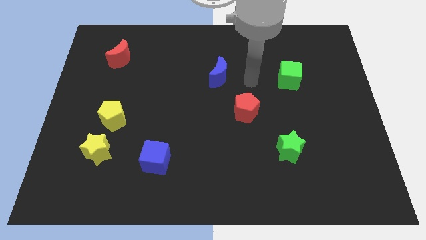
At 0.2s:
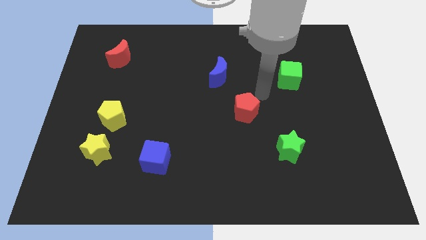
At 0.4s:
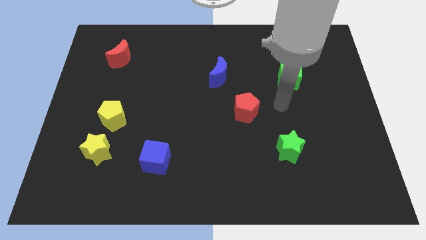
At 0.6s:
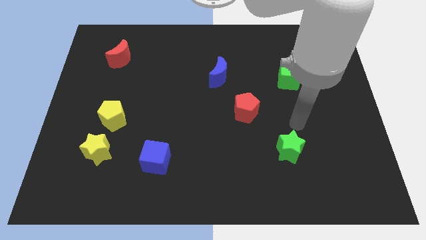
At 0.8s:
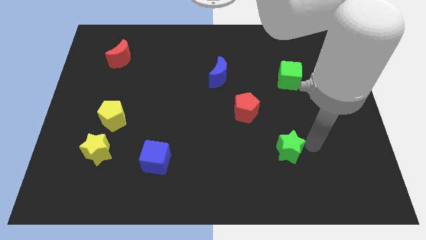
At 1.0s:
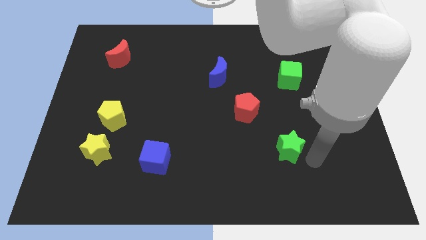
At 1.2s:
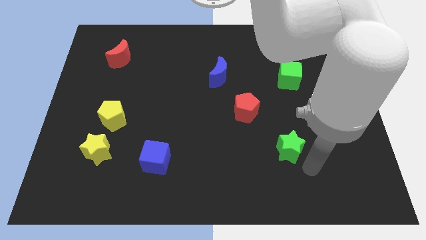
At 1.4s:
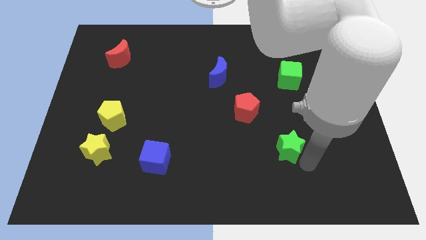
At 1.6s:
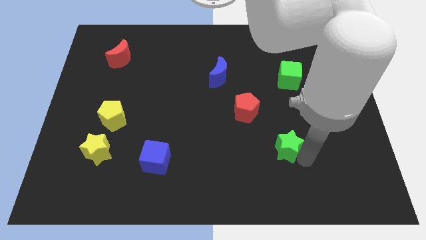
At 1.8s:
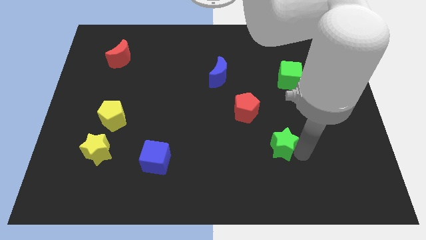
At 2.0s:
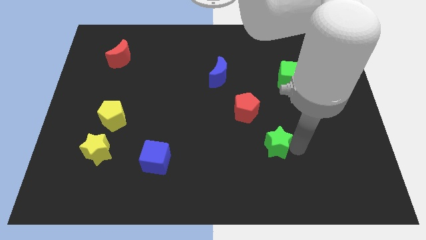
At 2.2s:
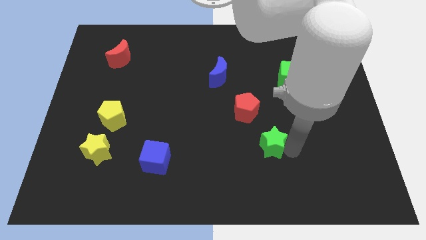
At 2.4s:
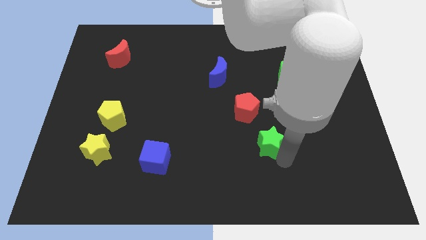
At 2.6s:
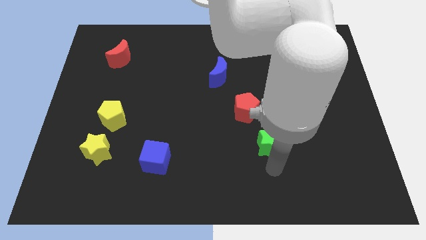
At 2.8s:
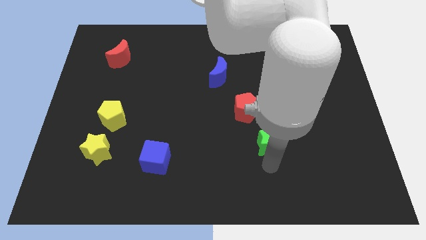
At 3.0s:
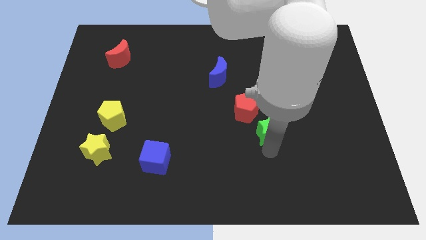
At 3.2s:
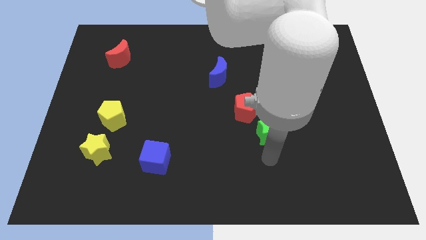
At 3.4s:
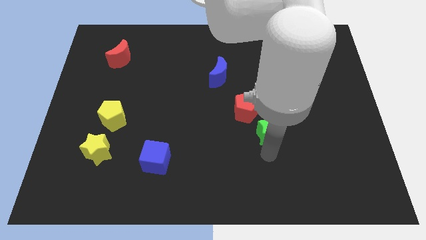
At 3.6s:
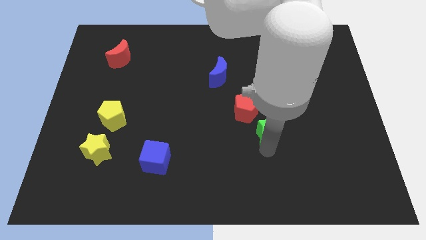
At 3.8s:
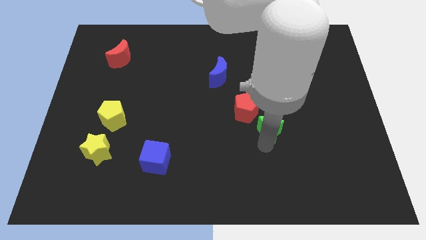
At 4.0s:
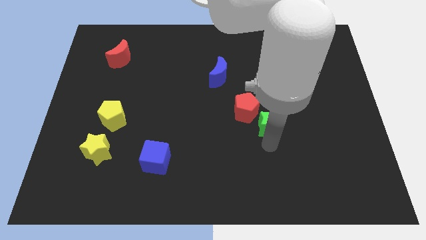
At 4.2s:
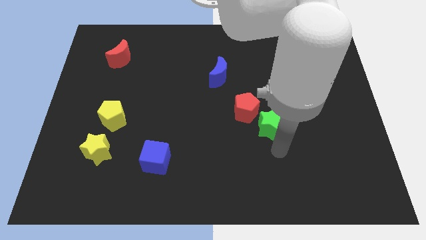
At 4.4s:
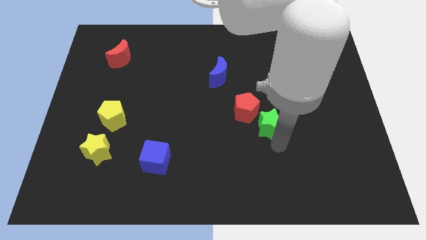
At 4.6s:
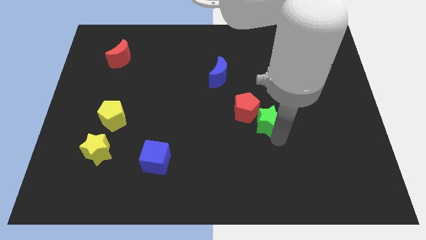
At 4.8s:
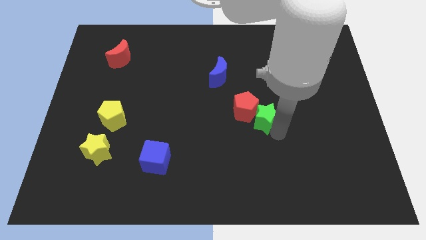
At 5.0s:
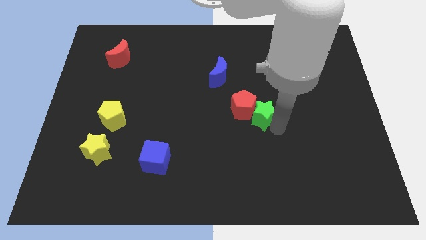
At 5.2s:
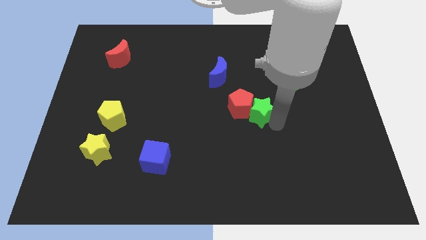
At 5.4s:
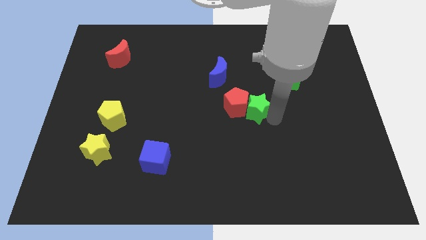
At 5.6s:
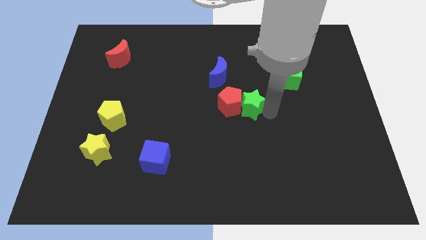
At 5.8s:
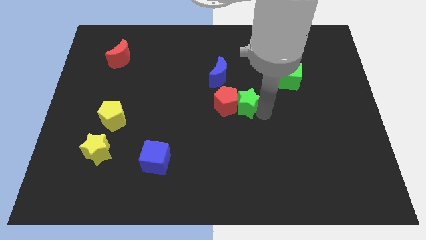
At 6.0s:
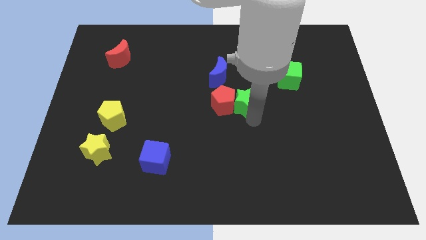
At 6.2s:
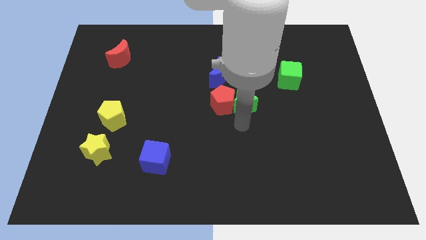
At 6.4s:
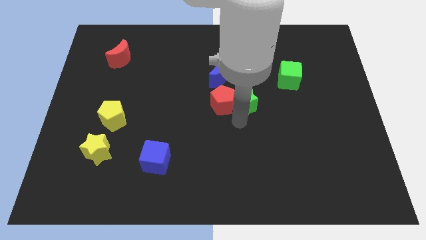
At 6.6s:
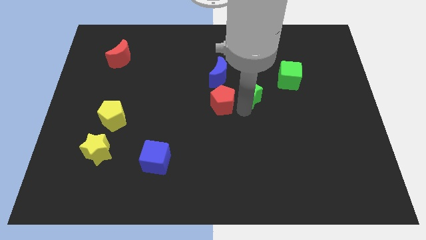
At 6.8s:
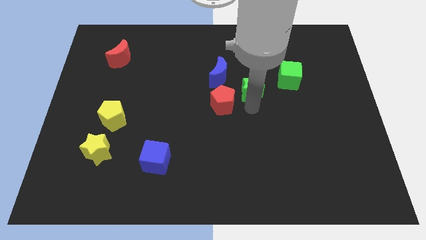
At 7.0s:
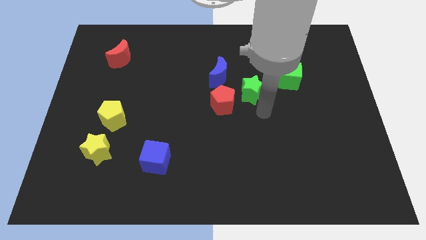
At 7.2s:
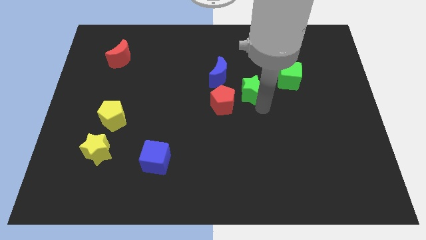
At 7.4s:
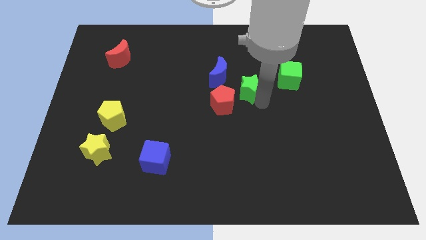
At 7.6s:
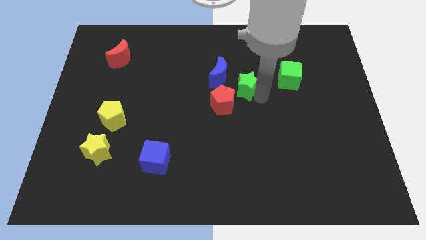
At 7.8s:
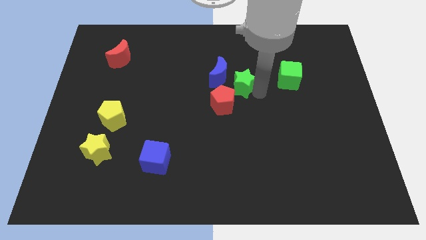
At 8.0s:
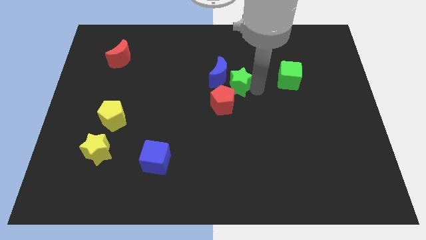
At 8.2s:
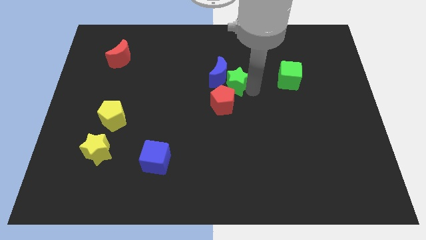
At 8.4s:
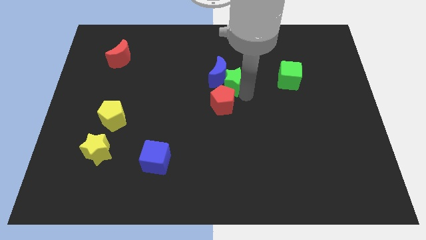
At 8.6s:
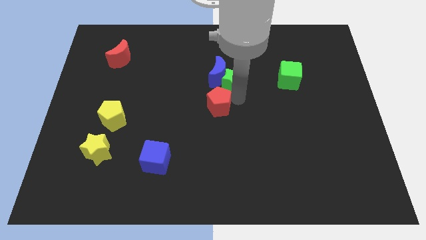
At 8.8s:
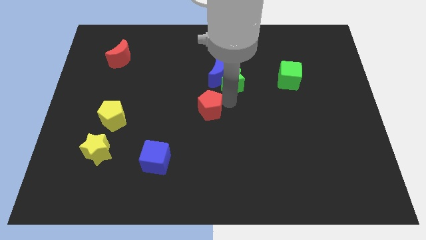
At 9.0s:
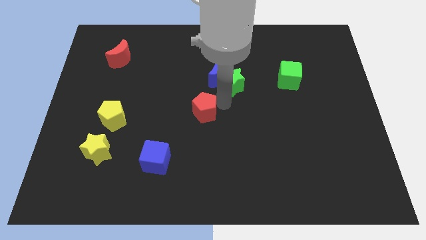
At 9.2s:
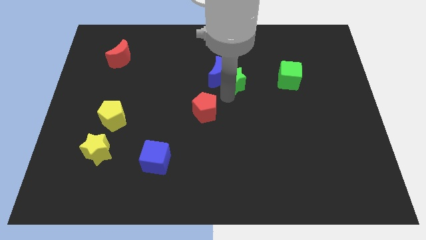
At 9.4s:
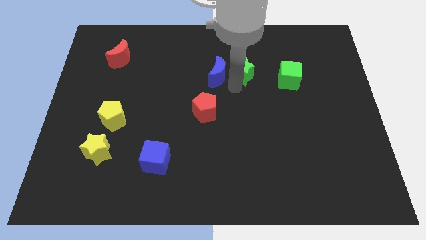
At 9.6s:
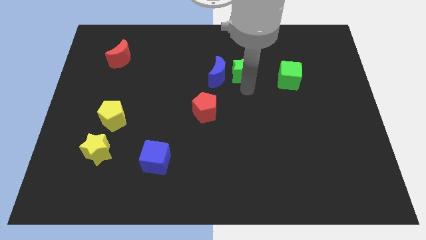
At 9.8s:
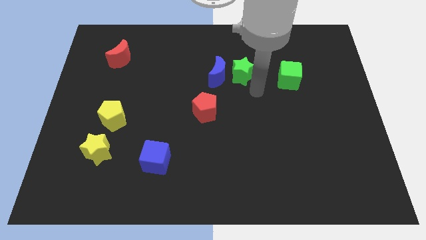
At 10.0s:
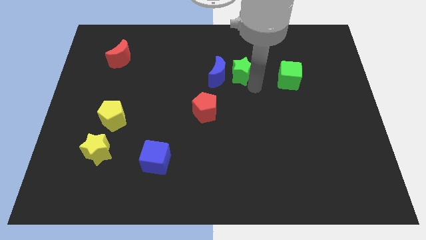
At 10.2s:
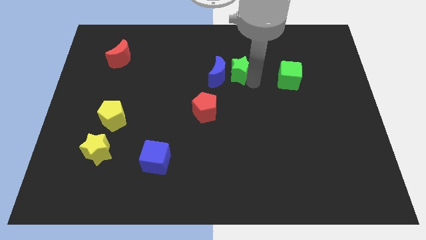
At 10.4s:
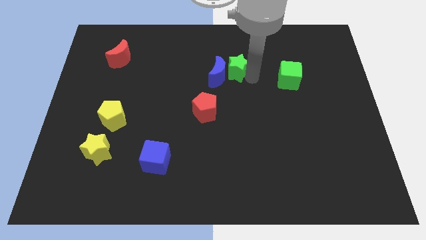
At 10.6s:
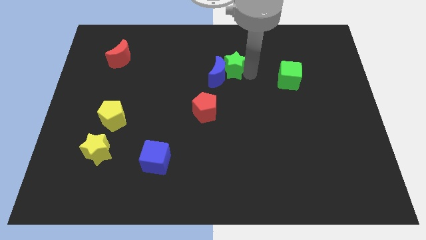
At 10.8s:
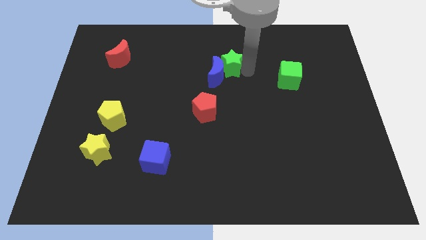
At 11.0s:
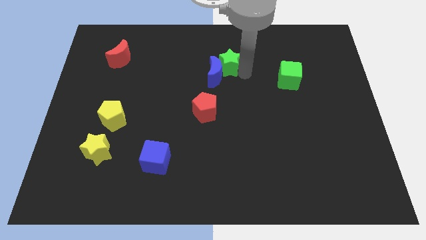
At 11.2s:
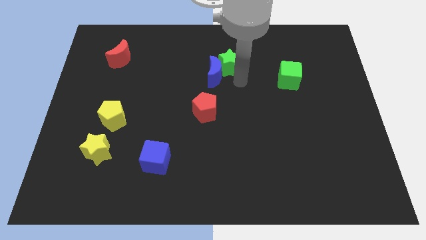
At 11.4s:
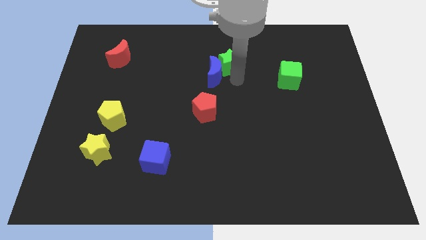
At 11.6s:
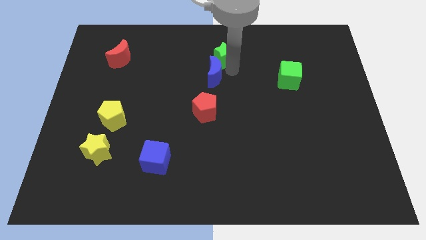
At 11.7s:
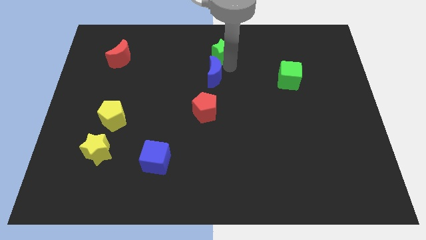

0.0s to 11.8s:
put the green star to the towards your base

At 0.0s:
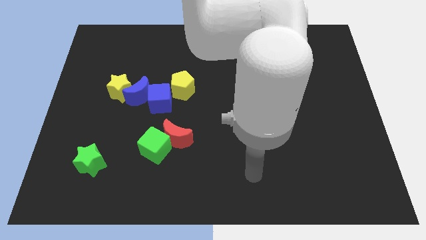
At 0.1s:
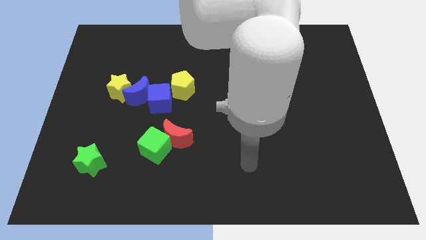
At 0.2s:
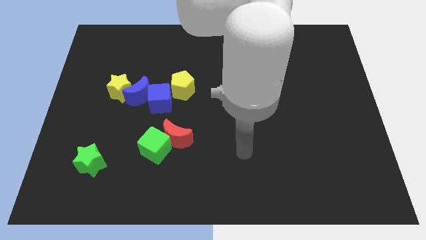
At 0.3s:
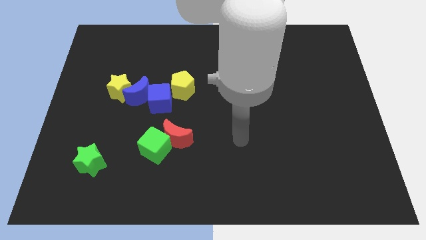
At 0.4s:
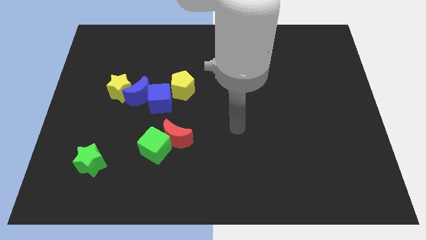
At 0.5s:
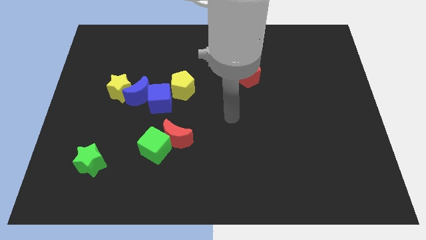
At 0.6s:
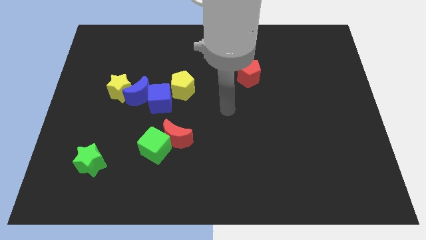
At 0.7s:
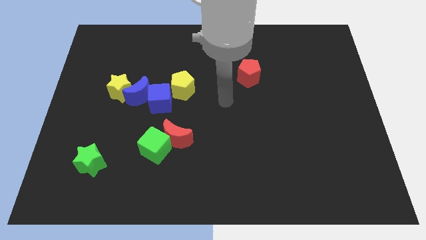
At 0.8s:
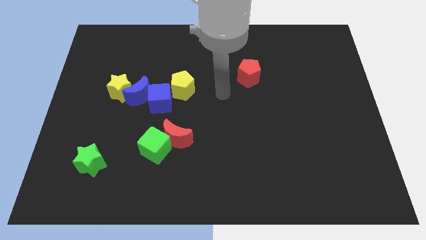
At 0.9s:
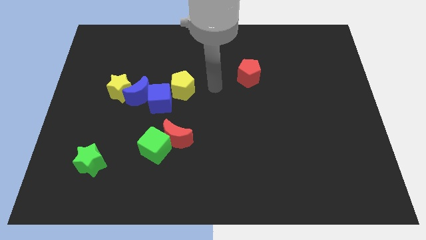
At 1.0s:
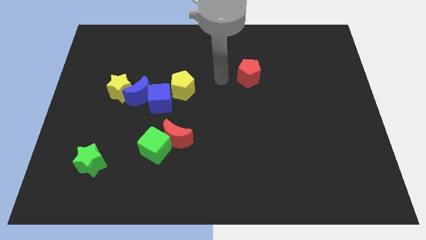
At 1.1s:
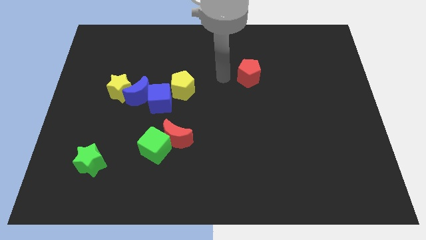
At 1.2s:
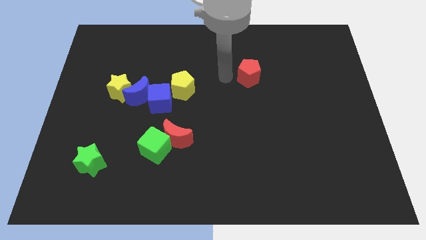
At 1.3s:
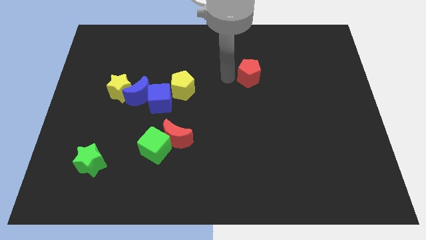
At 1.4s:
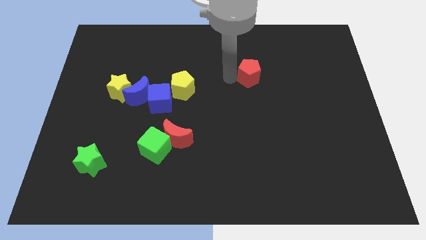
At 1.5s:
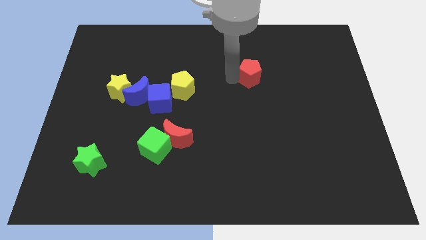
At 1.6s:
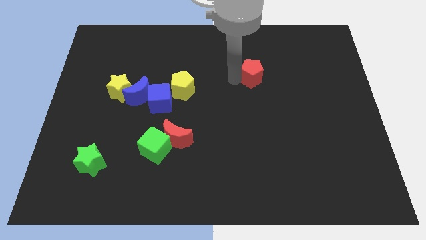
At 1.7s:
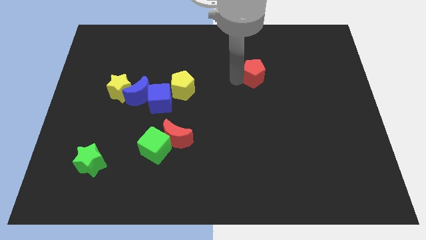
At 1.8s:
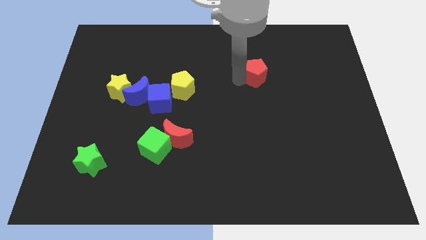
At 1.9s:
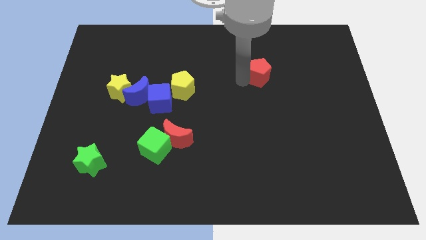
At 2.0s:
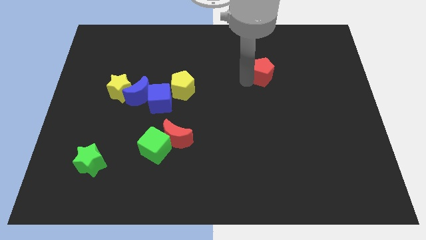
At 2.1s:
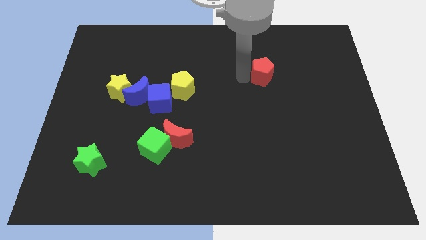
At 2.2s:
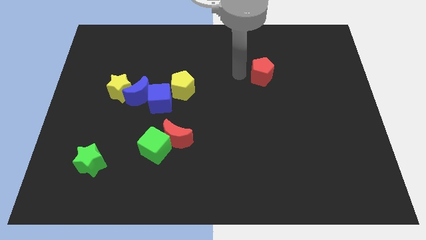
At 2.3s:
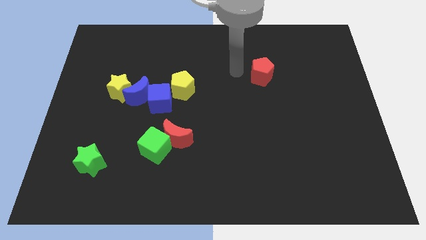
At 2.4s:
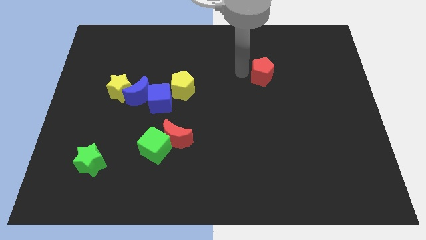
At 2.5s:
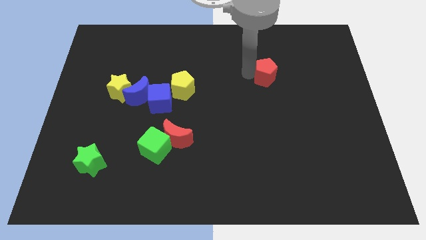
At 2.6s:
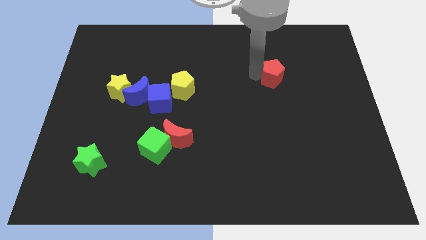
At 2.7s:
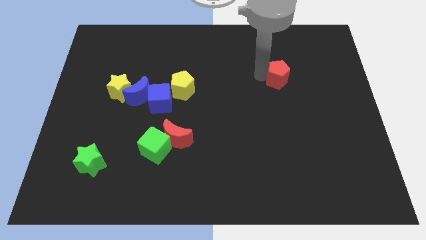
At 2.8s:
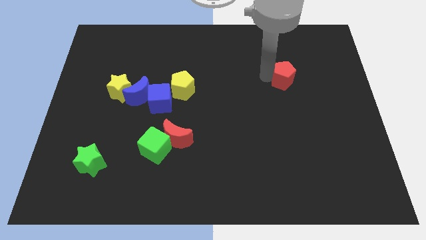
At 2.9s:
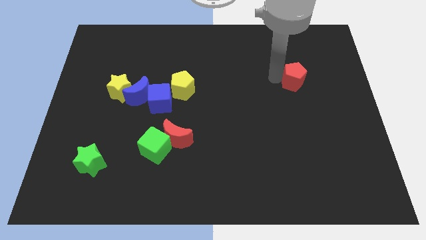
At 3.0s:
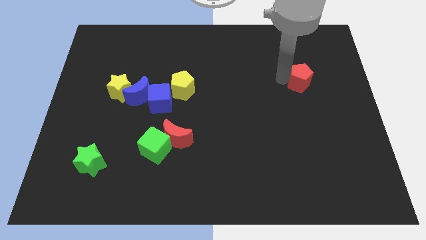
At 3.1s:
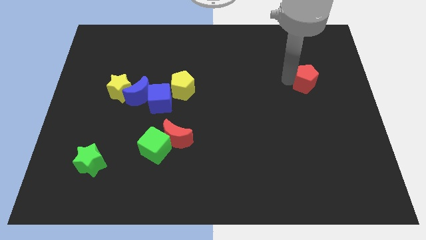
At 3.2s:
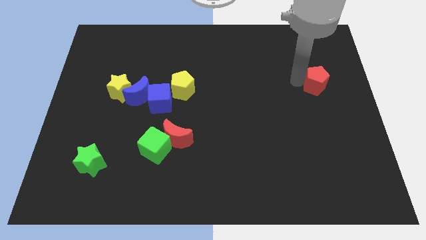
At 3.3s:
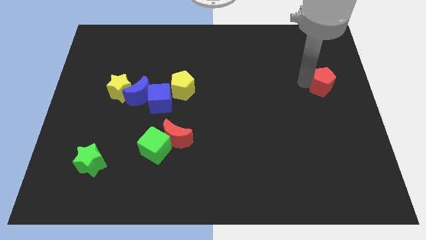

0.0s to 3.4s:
put the red pentagon to the right side of the board
